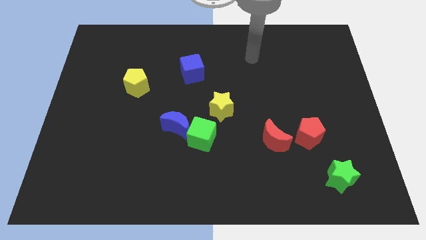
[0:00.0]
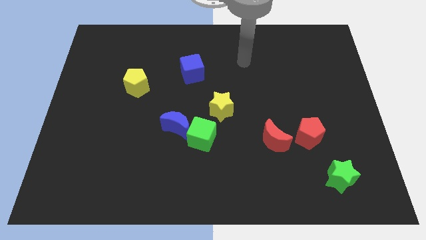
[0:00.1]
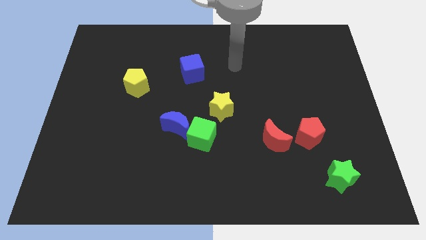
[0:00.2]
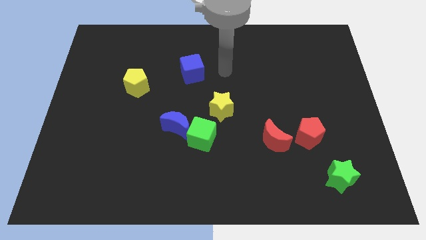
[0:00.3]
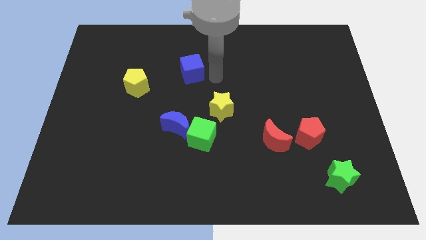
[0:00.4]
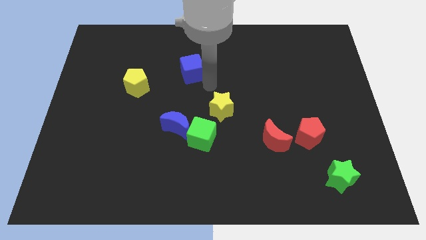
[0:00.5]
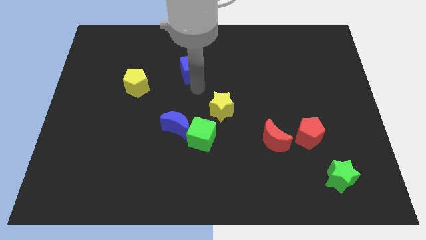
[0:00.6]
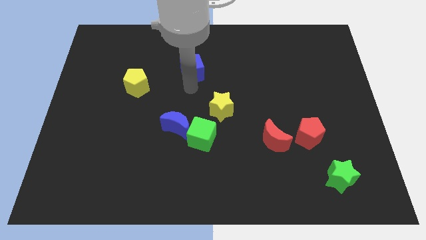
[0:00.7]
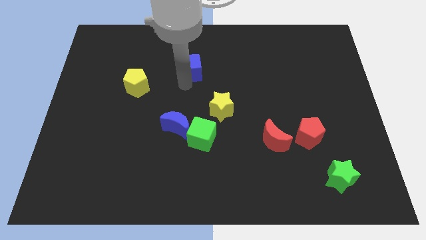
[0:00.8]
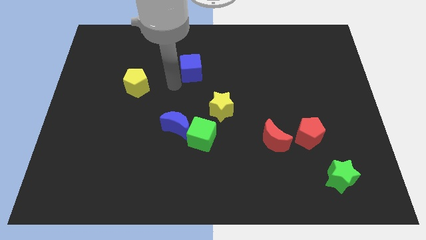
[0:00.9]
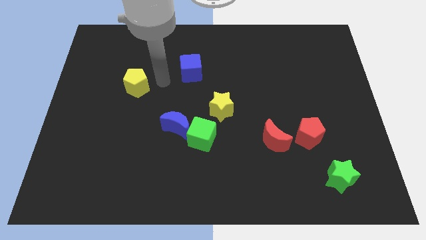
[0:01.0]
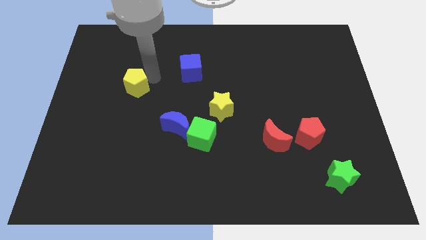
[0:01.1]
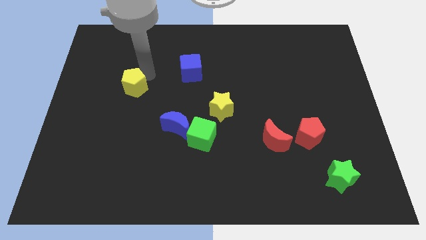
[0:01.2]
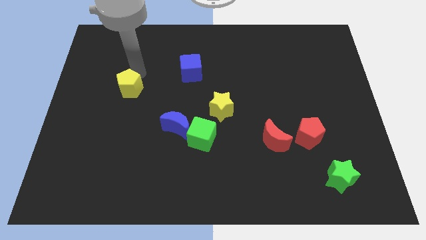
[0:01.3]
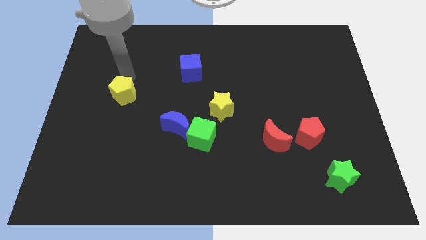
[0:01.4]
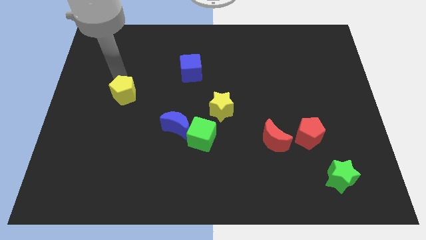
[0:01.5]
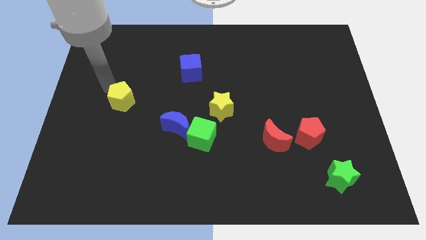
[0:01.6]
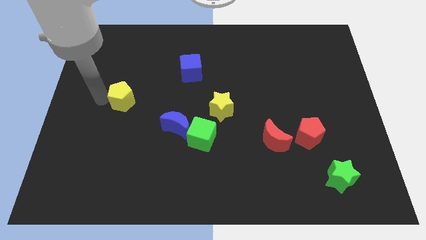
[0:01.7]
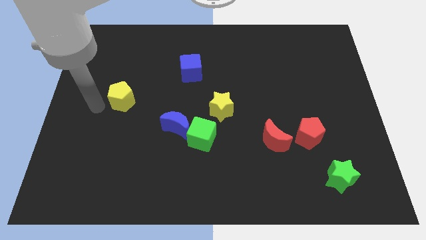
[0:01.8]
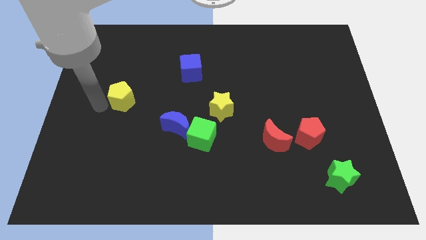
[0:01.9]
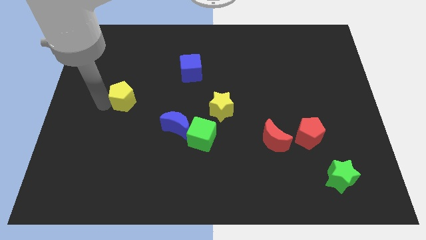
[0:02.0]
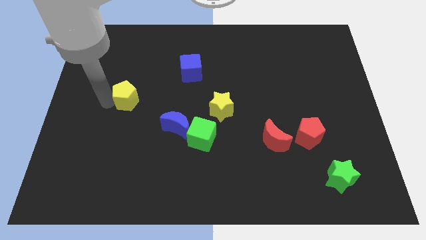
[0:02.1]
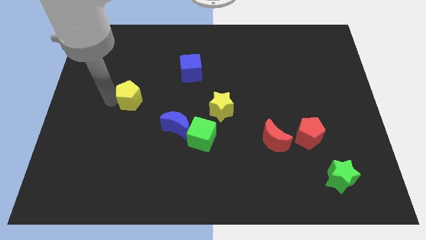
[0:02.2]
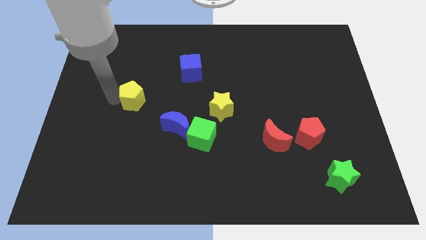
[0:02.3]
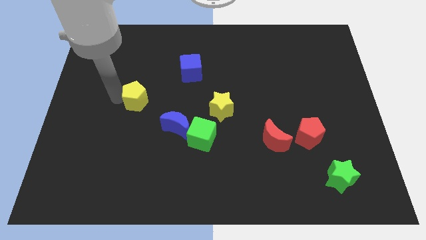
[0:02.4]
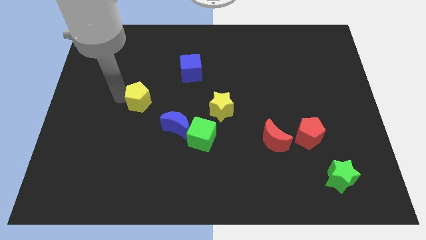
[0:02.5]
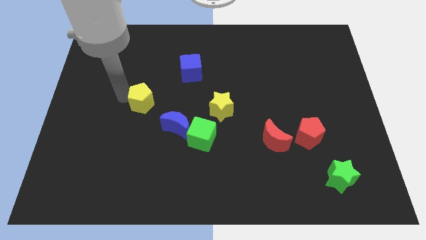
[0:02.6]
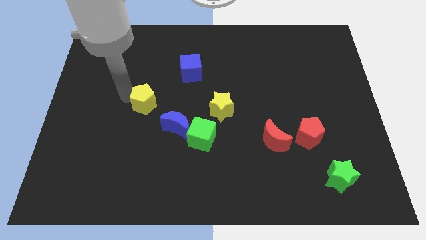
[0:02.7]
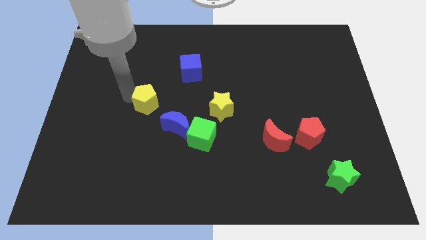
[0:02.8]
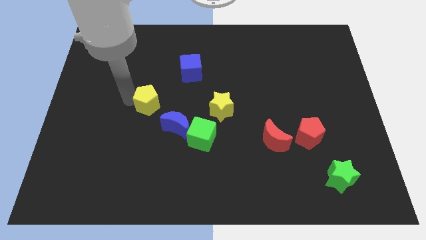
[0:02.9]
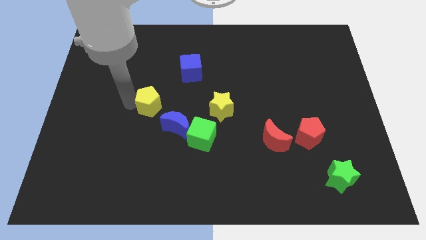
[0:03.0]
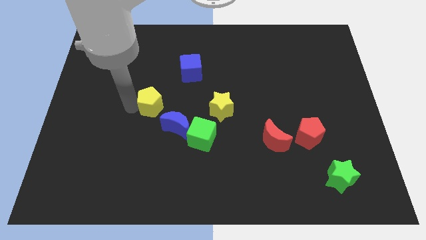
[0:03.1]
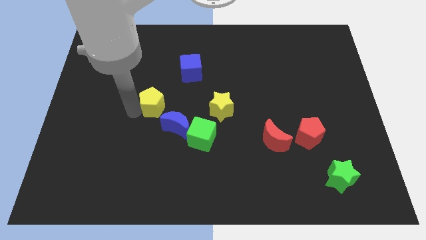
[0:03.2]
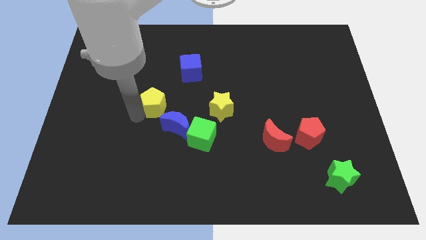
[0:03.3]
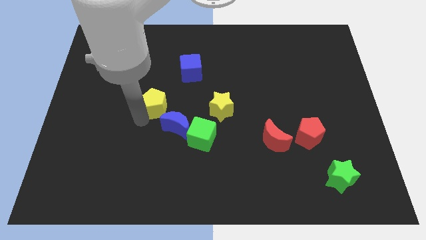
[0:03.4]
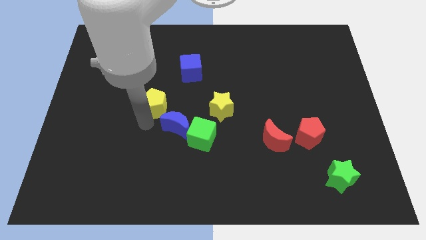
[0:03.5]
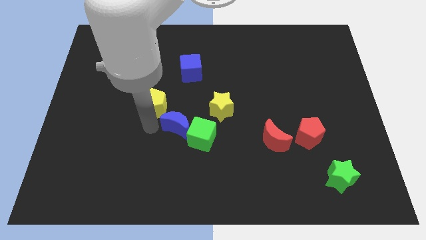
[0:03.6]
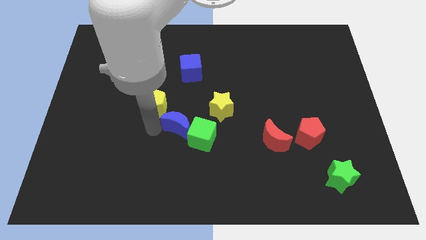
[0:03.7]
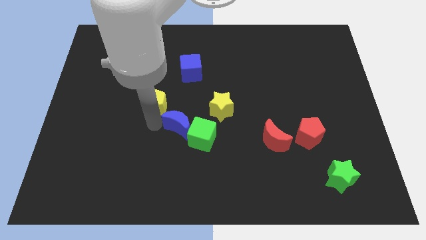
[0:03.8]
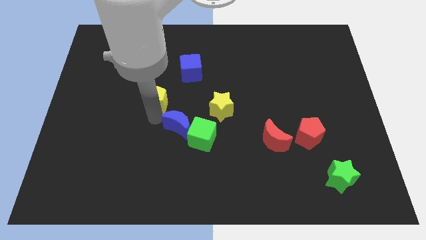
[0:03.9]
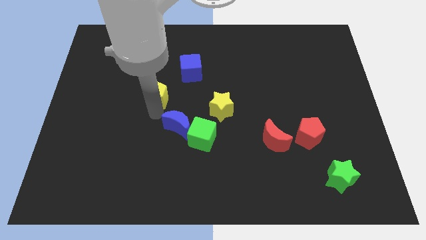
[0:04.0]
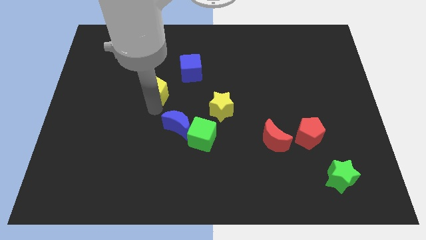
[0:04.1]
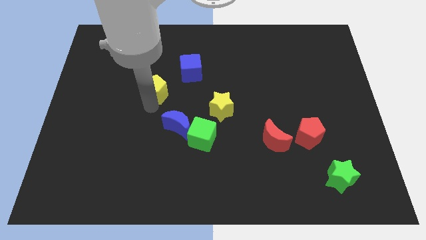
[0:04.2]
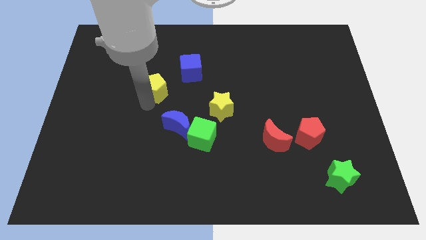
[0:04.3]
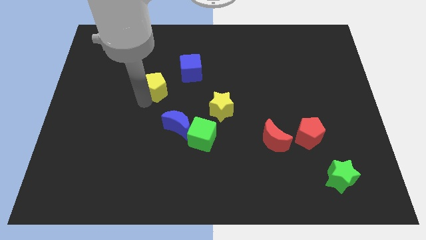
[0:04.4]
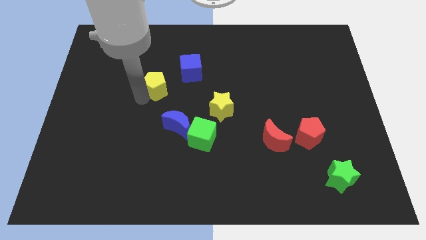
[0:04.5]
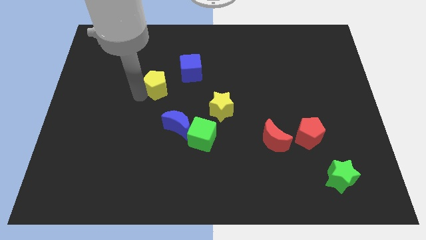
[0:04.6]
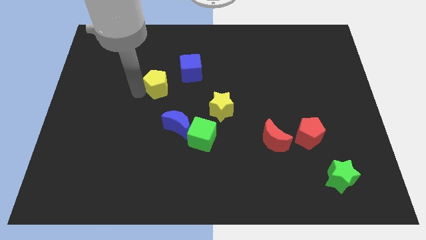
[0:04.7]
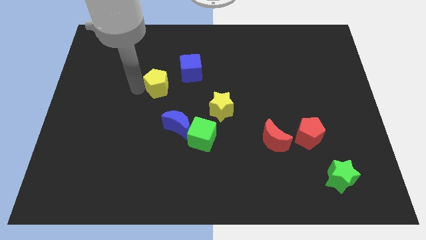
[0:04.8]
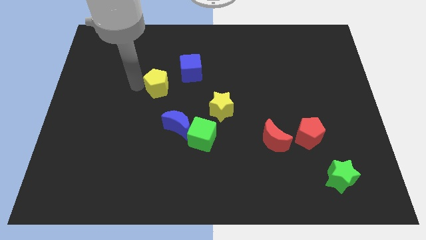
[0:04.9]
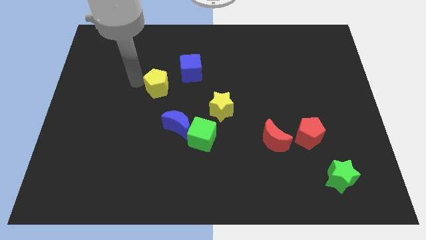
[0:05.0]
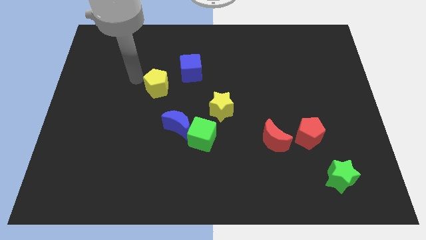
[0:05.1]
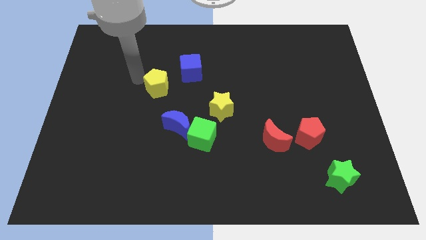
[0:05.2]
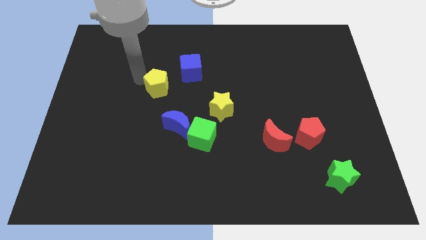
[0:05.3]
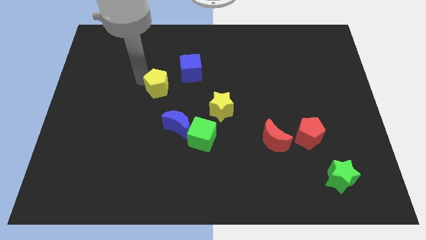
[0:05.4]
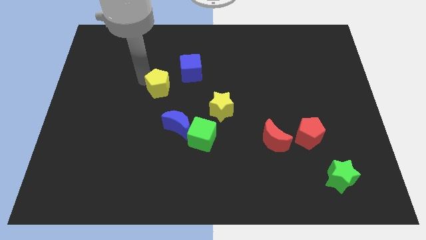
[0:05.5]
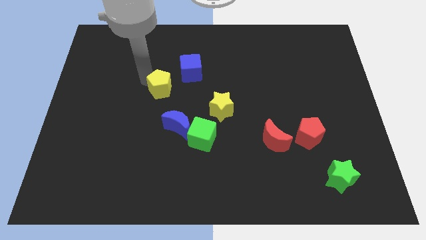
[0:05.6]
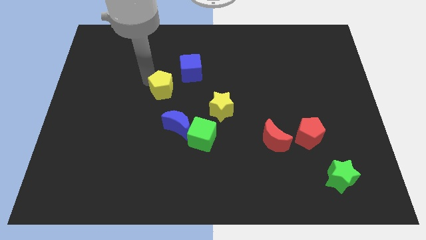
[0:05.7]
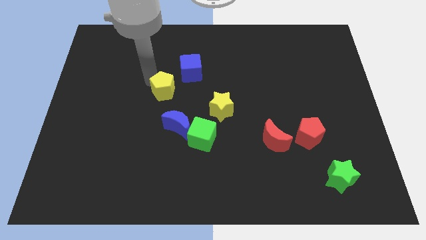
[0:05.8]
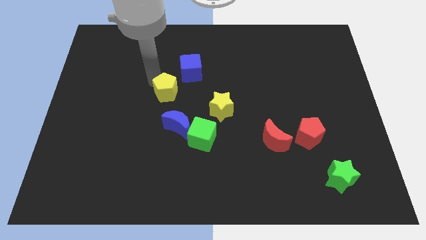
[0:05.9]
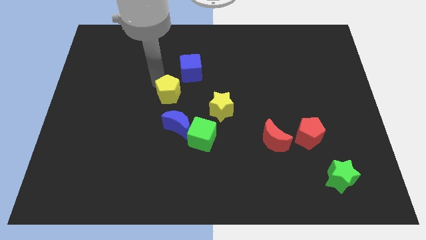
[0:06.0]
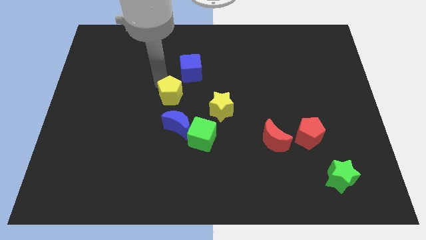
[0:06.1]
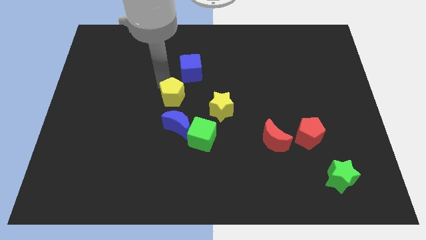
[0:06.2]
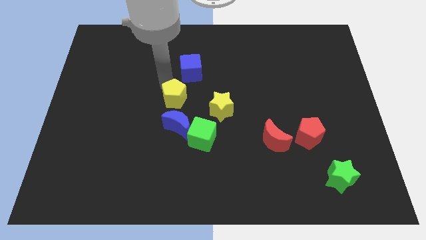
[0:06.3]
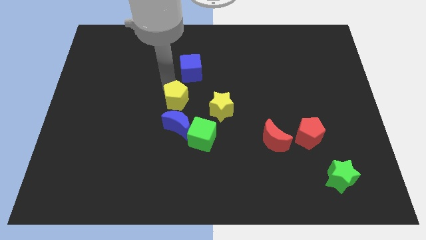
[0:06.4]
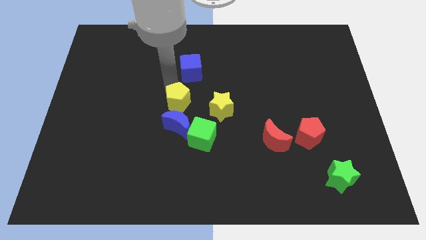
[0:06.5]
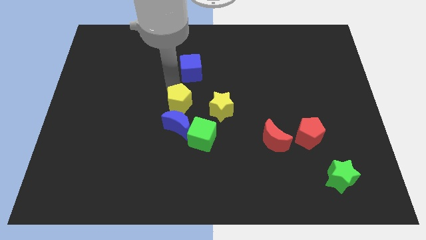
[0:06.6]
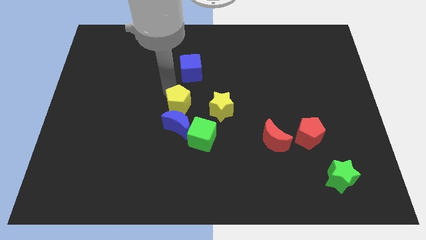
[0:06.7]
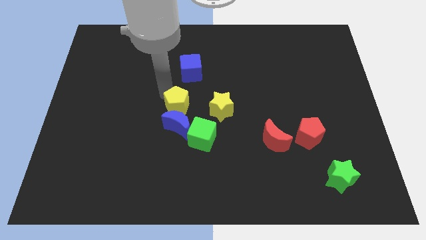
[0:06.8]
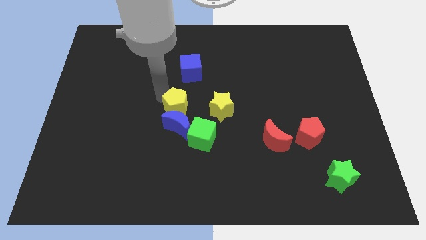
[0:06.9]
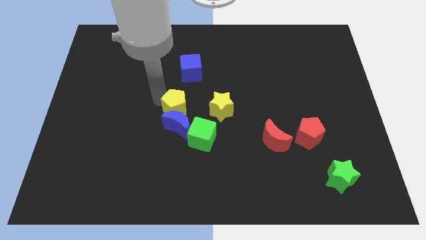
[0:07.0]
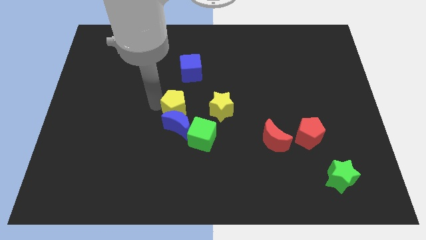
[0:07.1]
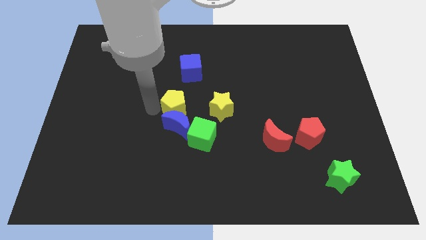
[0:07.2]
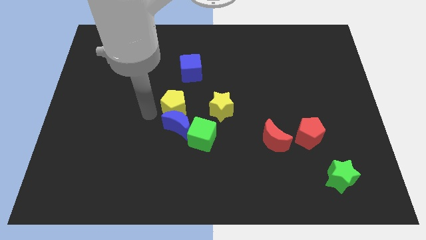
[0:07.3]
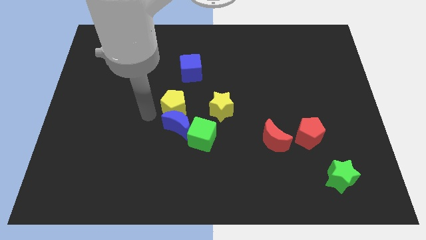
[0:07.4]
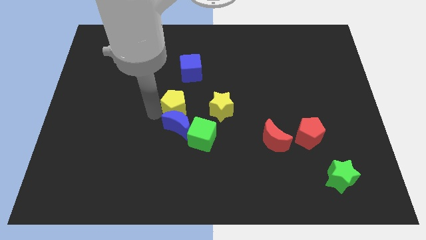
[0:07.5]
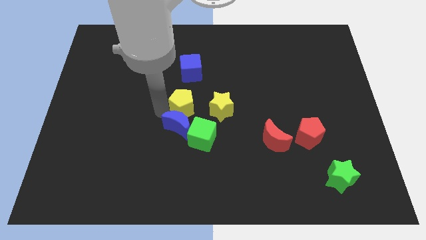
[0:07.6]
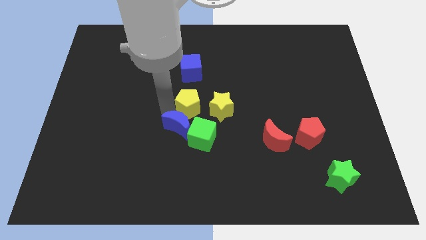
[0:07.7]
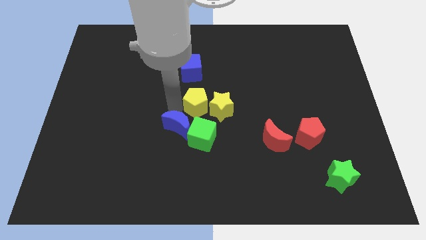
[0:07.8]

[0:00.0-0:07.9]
move the yellow pentagon next to the yellow star
